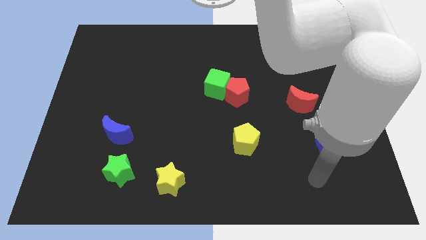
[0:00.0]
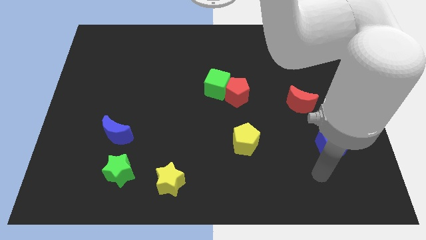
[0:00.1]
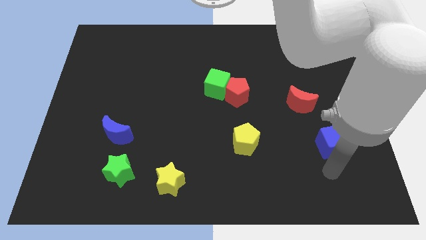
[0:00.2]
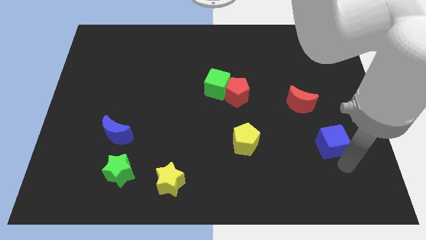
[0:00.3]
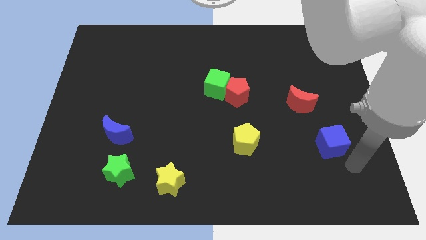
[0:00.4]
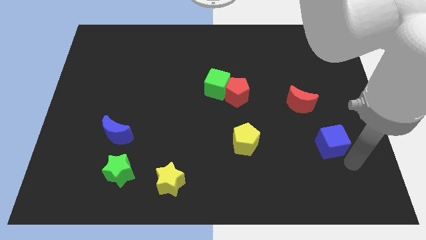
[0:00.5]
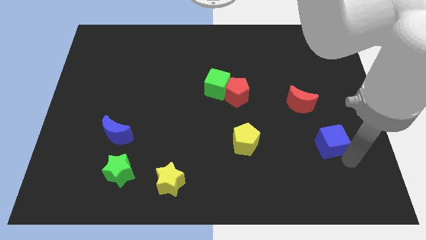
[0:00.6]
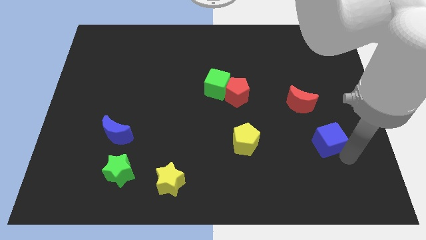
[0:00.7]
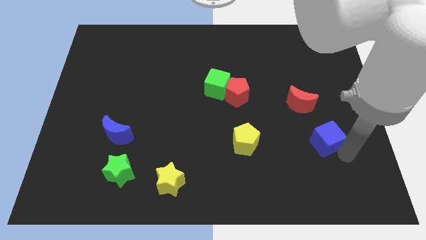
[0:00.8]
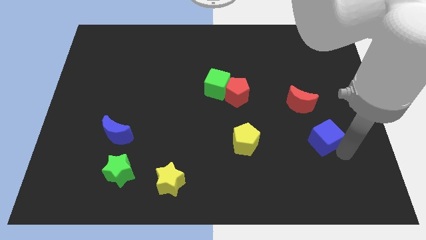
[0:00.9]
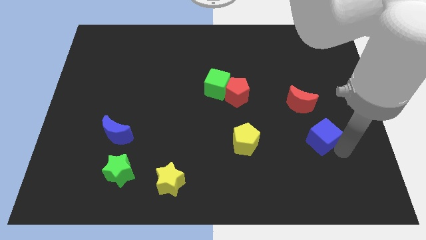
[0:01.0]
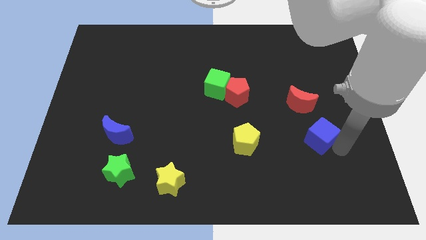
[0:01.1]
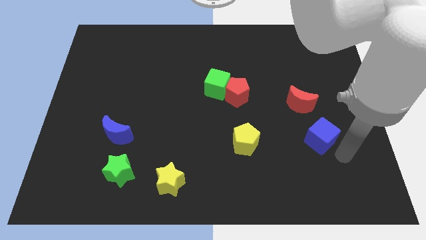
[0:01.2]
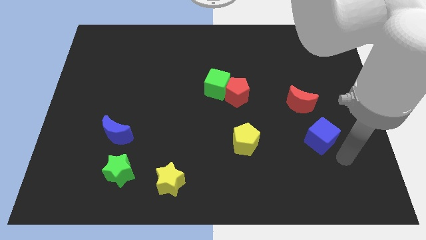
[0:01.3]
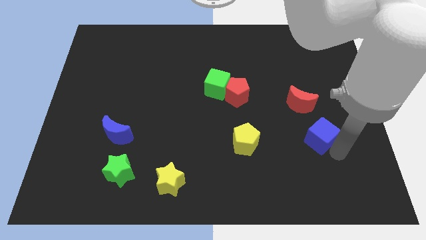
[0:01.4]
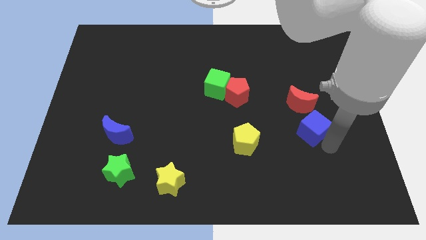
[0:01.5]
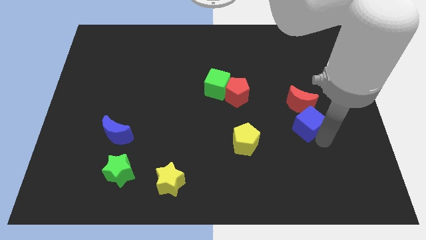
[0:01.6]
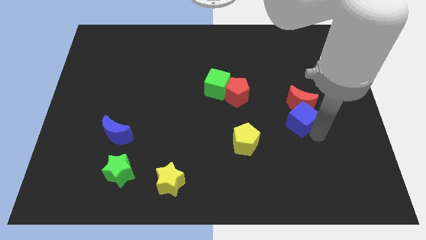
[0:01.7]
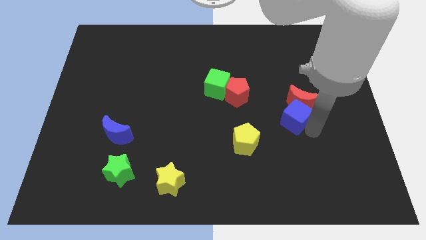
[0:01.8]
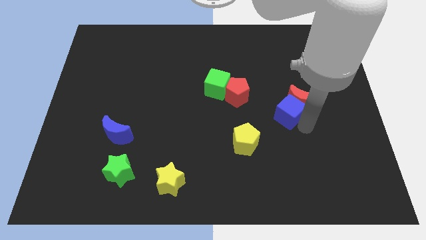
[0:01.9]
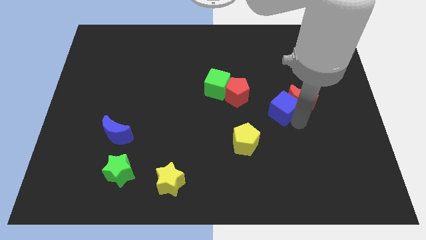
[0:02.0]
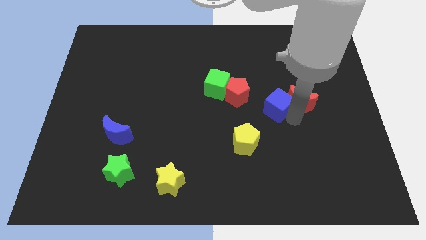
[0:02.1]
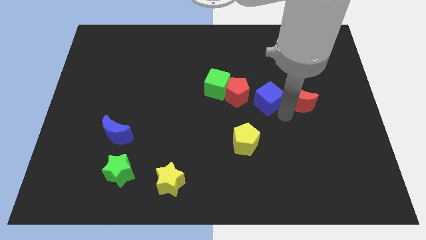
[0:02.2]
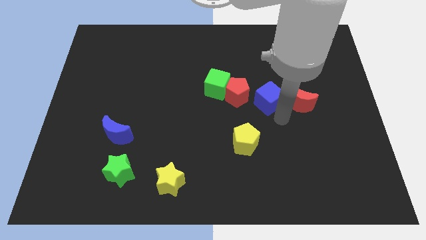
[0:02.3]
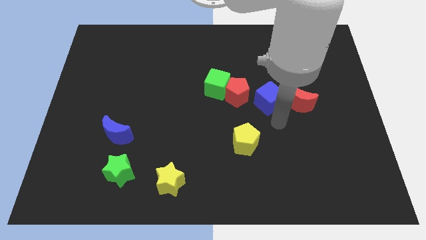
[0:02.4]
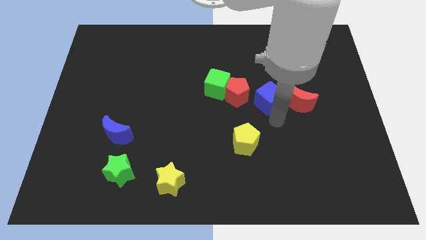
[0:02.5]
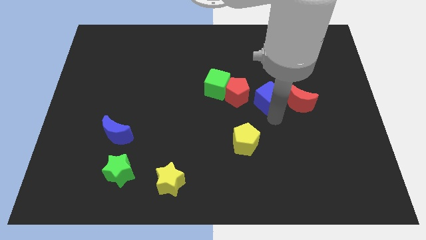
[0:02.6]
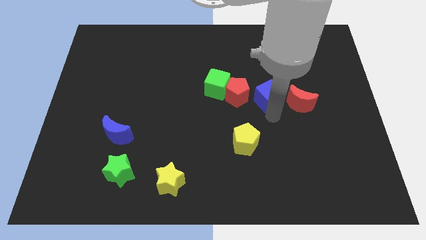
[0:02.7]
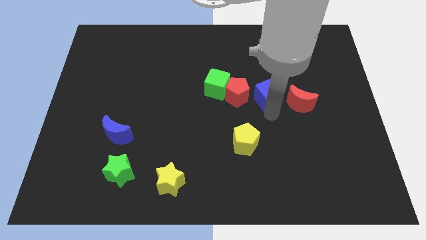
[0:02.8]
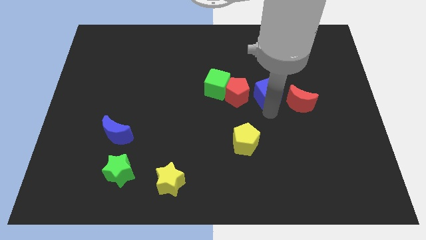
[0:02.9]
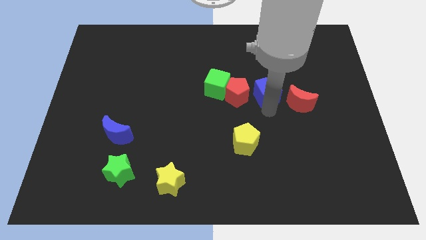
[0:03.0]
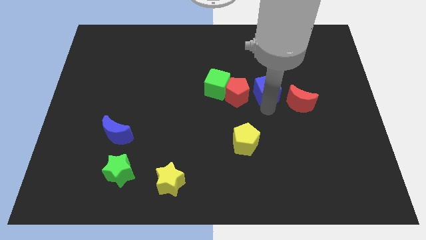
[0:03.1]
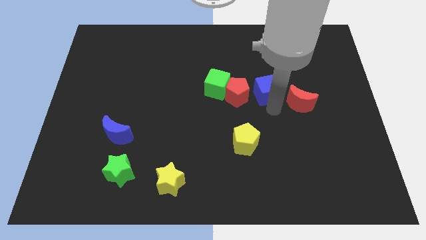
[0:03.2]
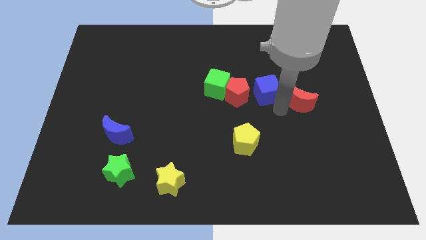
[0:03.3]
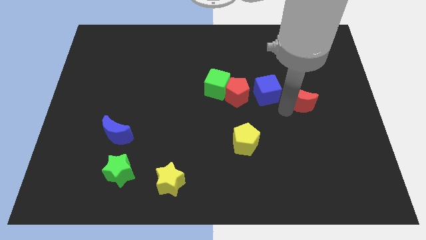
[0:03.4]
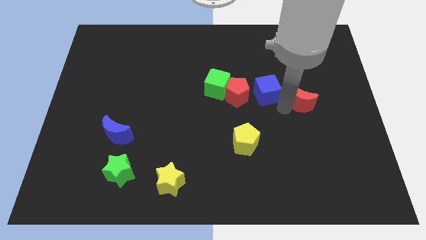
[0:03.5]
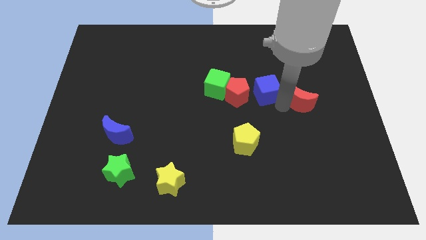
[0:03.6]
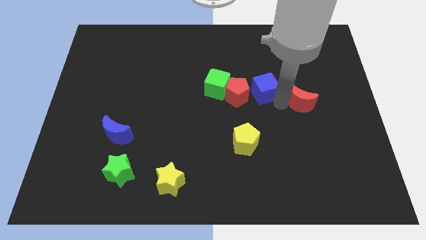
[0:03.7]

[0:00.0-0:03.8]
move the blue cube diagonally upwards and to the left

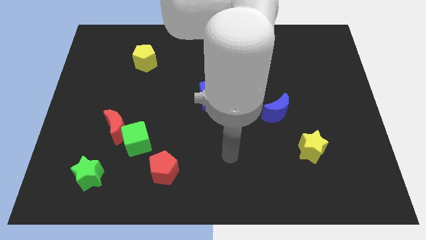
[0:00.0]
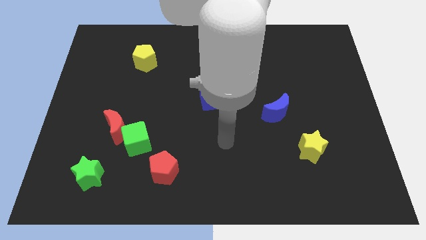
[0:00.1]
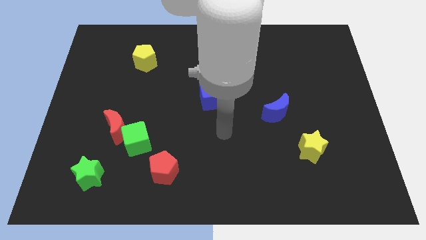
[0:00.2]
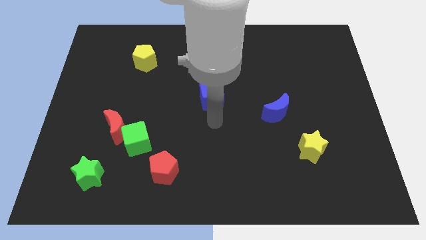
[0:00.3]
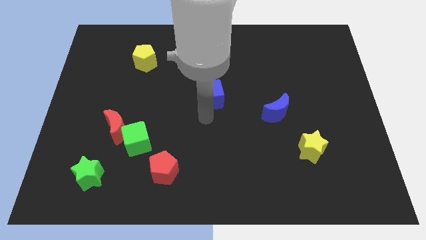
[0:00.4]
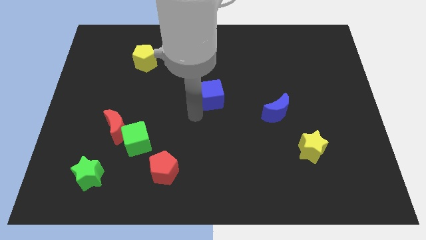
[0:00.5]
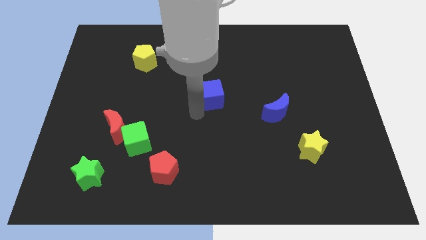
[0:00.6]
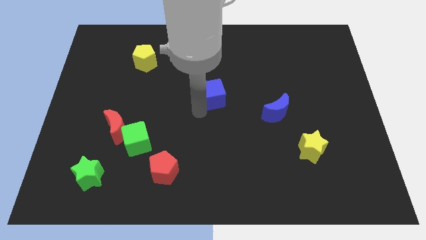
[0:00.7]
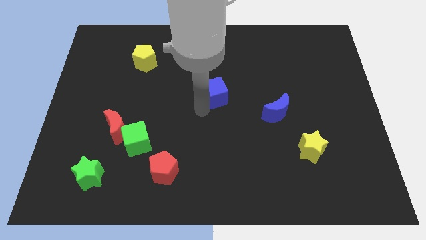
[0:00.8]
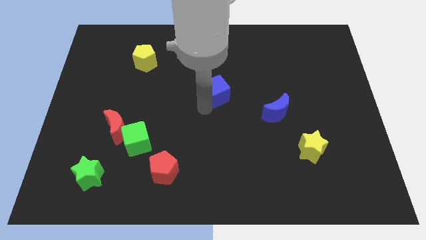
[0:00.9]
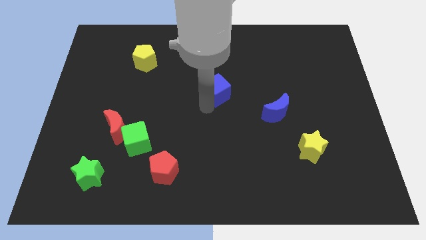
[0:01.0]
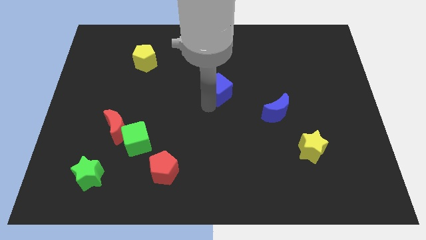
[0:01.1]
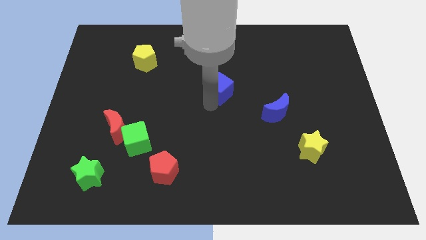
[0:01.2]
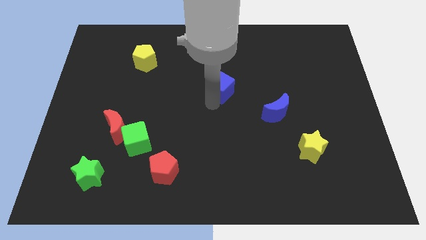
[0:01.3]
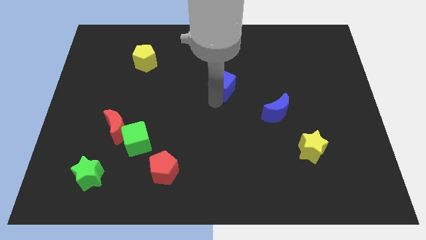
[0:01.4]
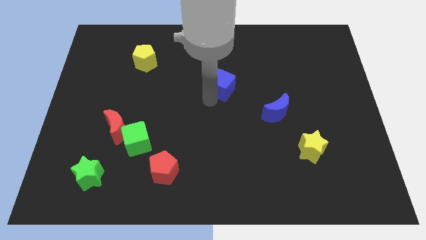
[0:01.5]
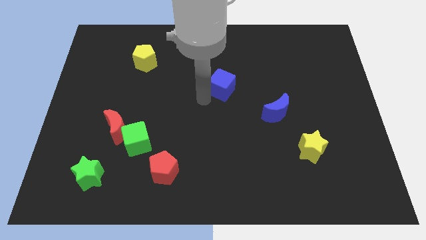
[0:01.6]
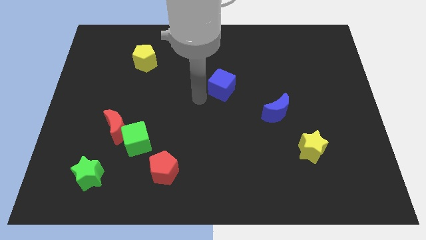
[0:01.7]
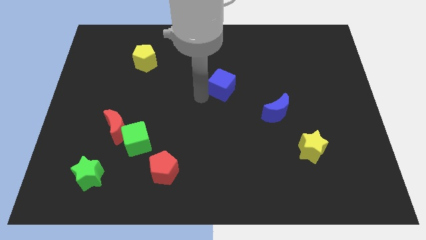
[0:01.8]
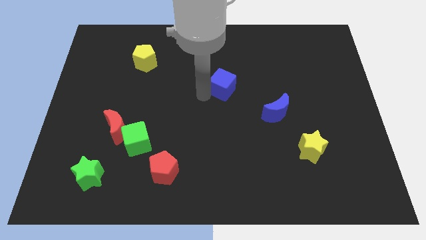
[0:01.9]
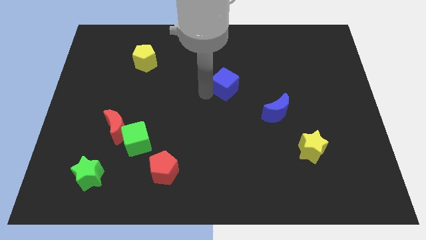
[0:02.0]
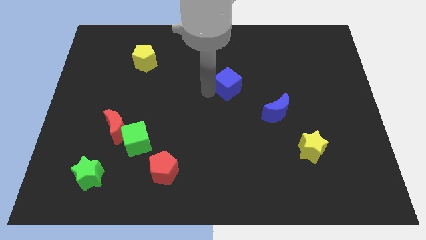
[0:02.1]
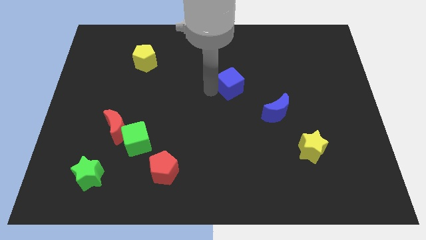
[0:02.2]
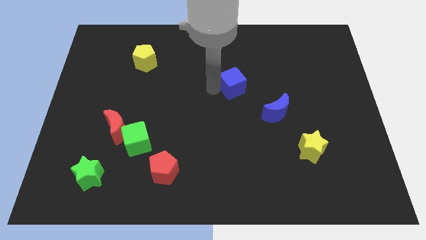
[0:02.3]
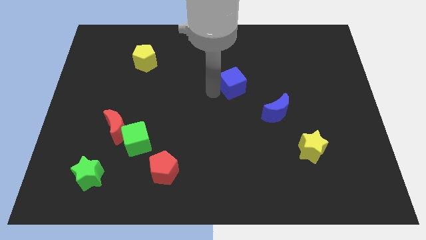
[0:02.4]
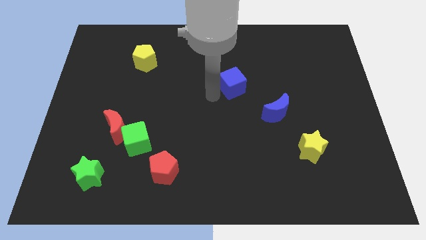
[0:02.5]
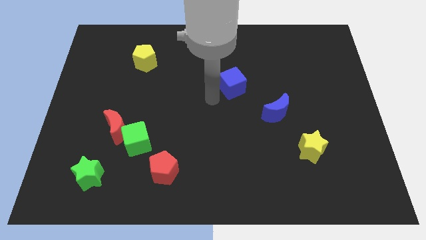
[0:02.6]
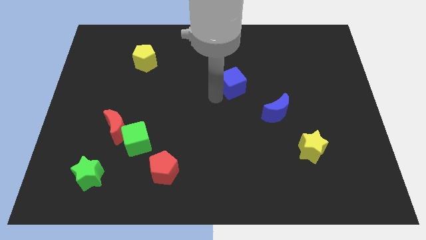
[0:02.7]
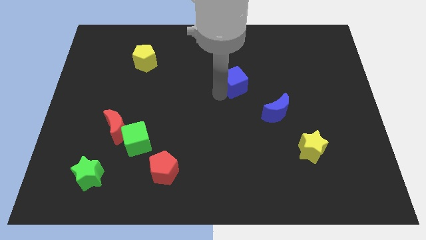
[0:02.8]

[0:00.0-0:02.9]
move the blue cube a little up and right diagonally

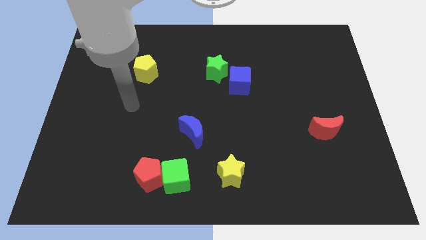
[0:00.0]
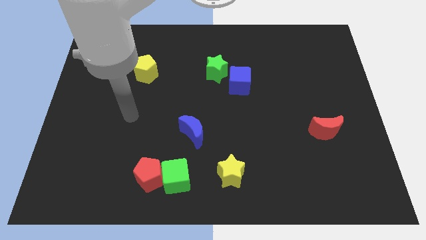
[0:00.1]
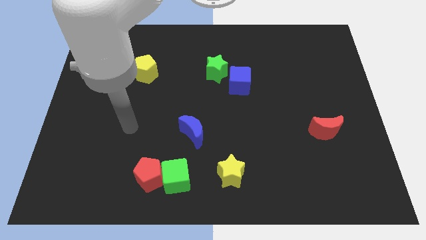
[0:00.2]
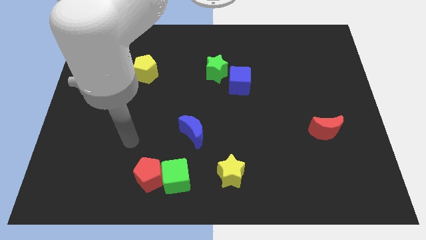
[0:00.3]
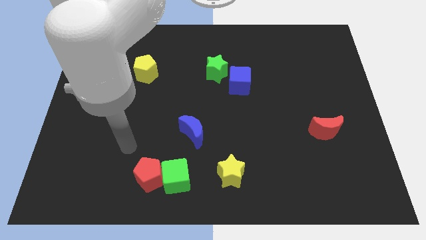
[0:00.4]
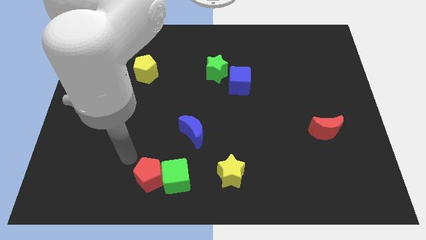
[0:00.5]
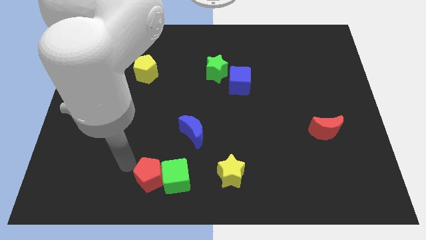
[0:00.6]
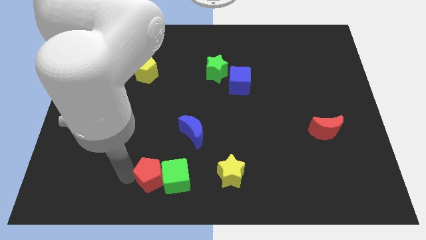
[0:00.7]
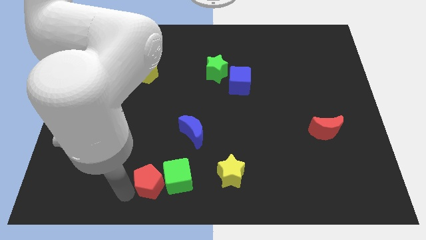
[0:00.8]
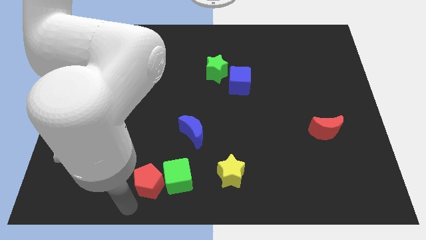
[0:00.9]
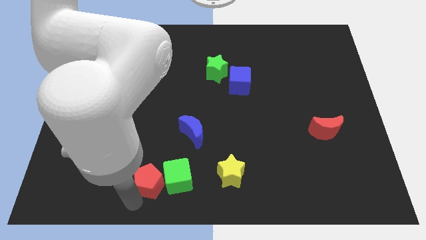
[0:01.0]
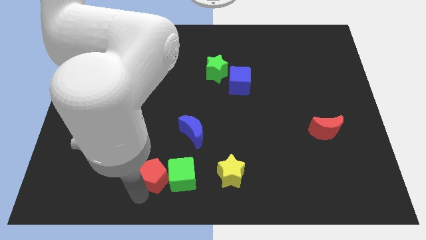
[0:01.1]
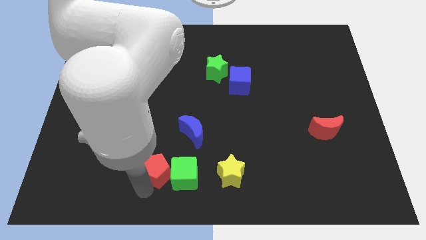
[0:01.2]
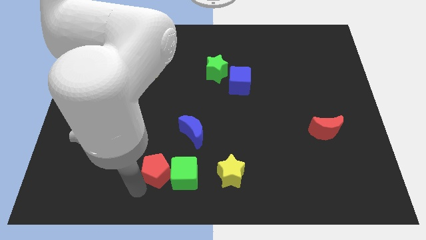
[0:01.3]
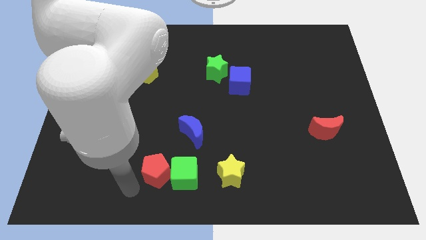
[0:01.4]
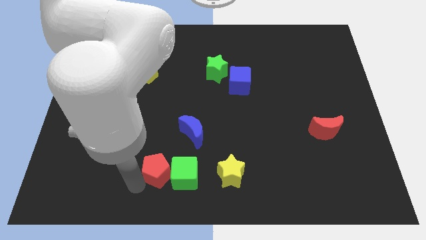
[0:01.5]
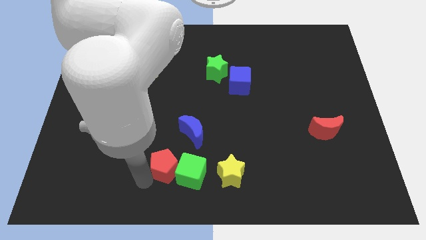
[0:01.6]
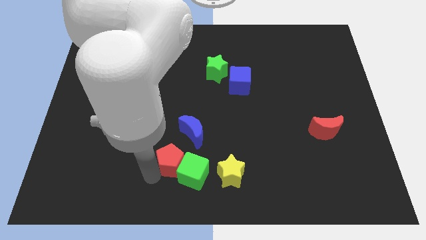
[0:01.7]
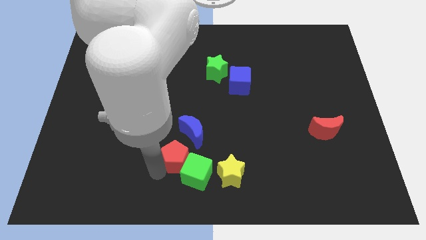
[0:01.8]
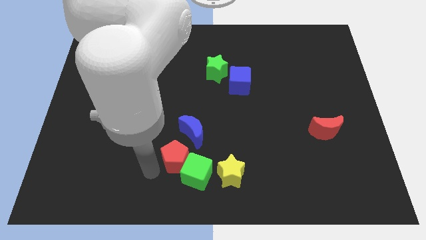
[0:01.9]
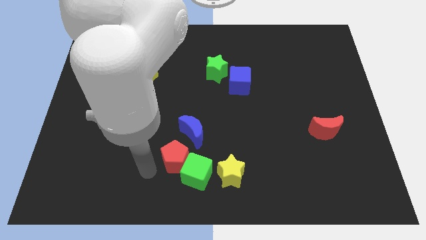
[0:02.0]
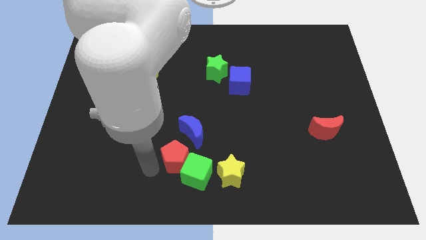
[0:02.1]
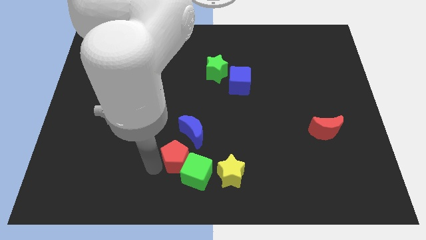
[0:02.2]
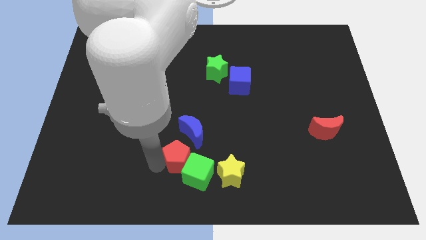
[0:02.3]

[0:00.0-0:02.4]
slightly push the red pentagon upwards and right
